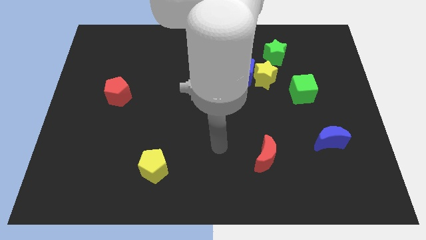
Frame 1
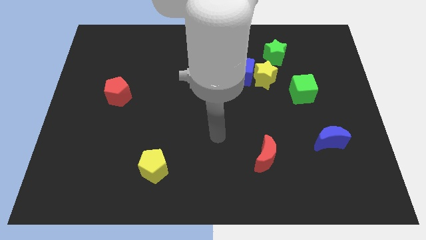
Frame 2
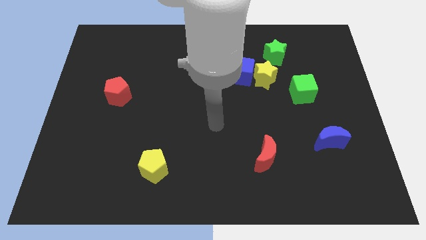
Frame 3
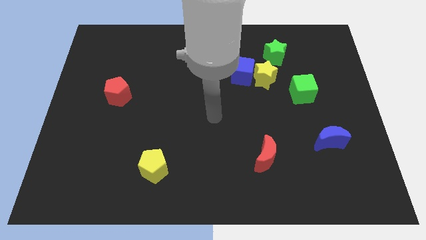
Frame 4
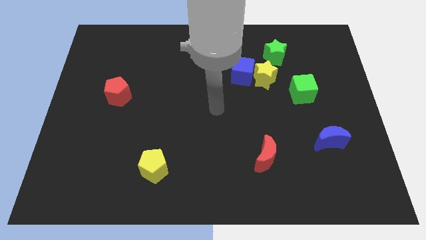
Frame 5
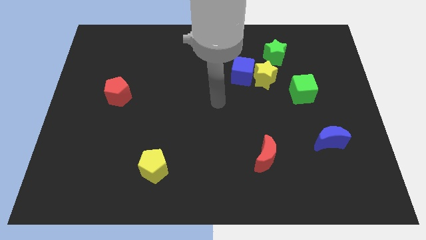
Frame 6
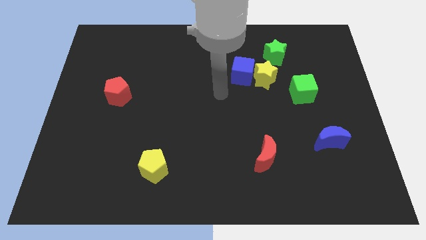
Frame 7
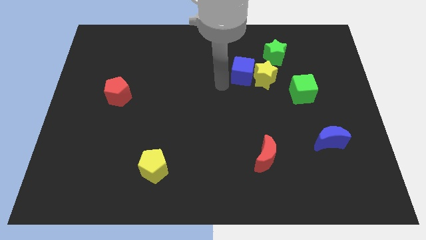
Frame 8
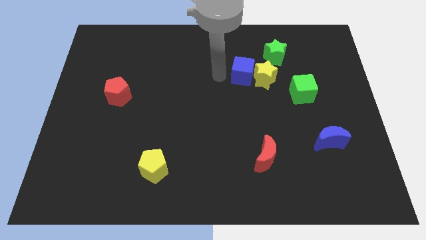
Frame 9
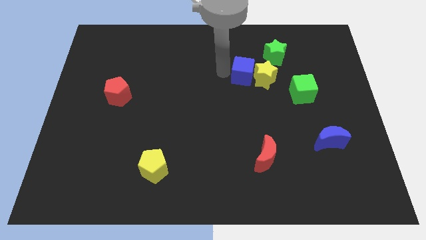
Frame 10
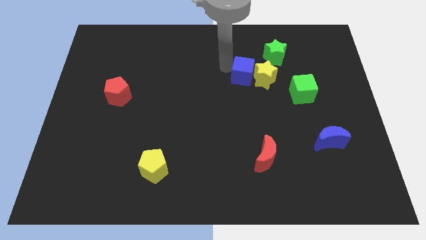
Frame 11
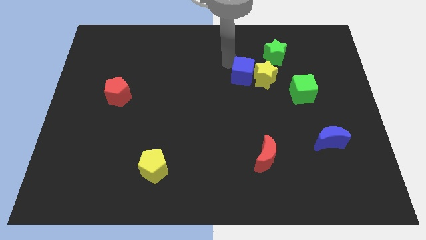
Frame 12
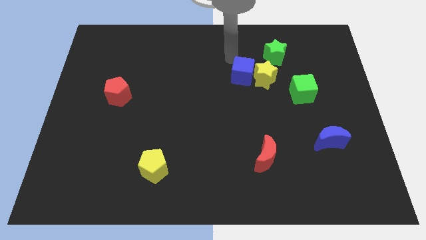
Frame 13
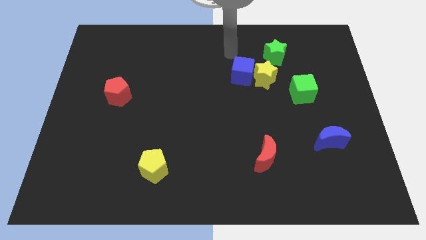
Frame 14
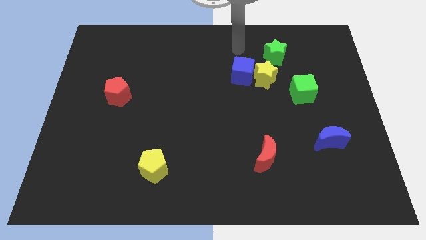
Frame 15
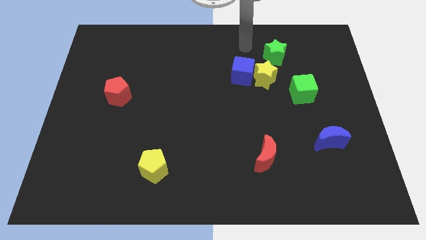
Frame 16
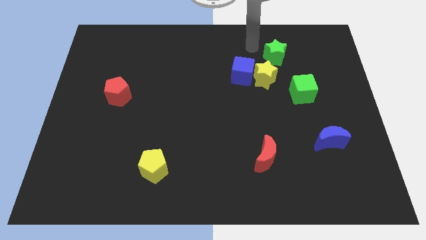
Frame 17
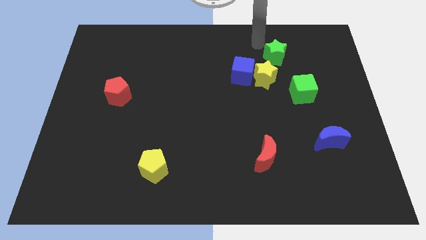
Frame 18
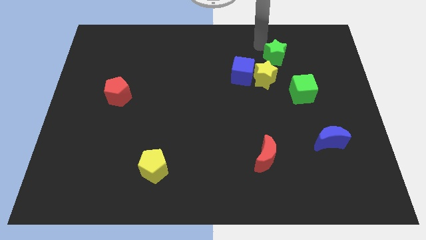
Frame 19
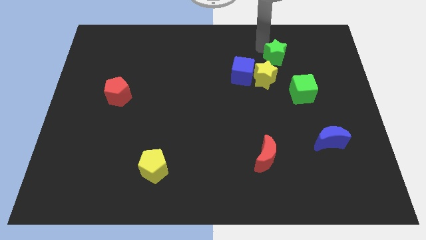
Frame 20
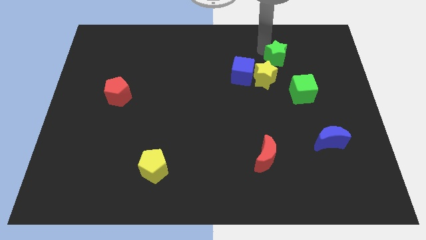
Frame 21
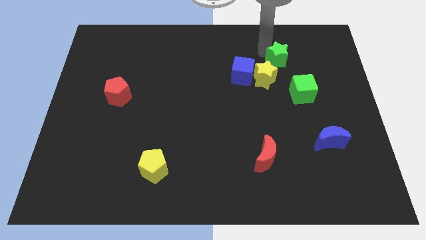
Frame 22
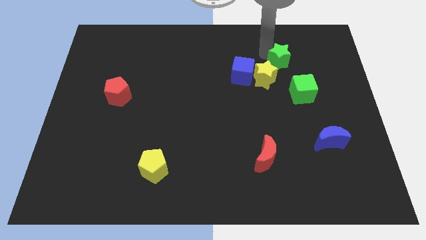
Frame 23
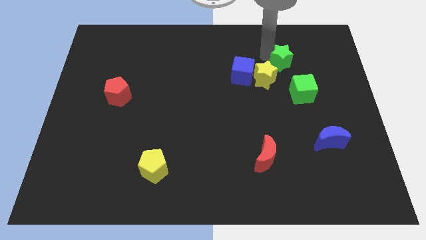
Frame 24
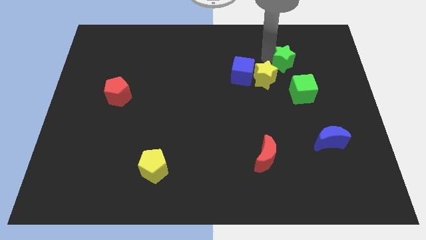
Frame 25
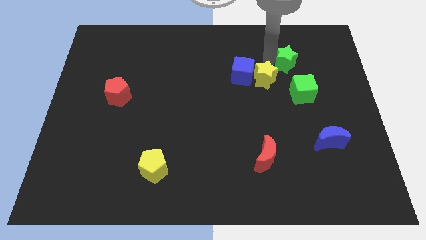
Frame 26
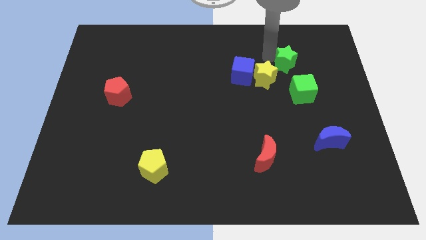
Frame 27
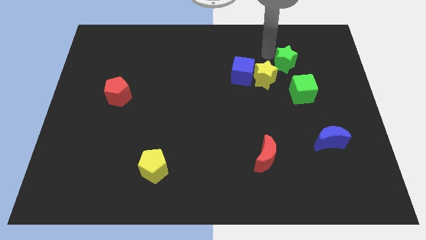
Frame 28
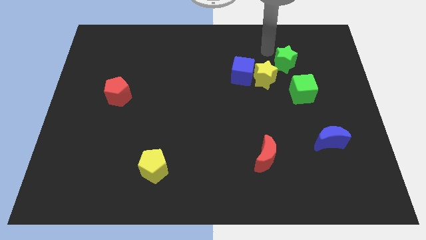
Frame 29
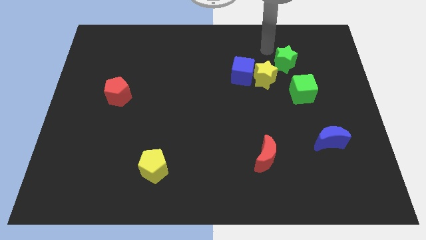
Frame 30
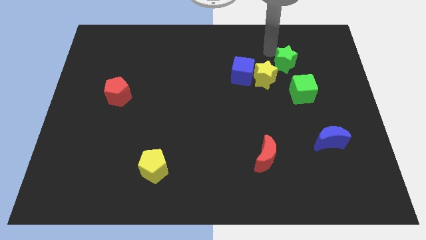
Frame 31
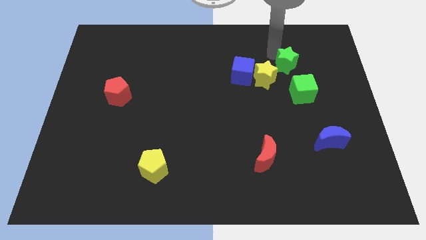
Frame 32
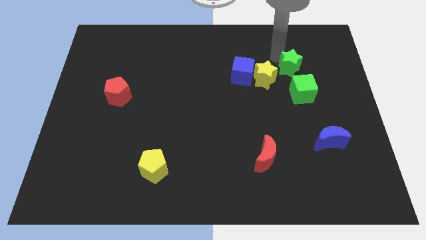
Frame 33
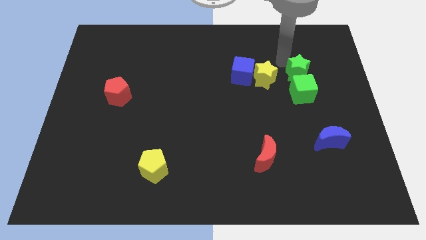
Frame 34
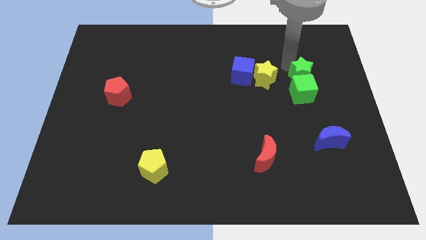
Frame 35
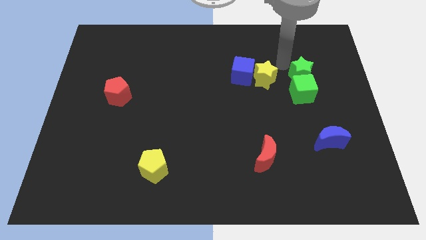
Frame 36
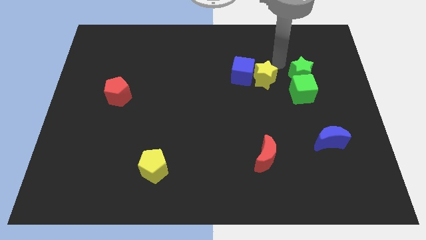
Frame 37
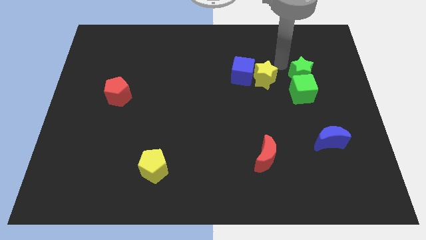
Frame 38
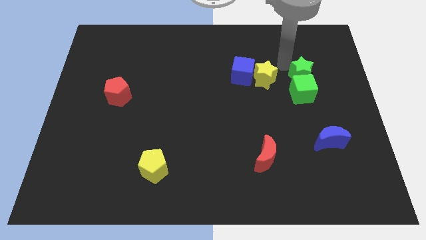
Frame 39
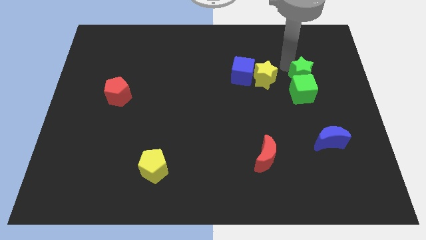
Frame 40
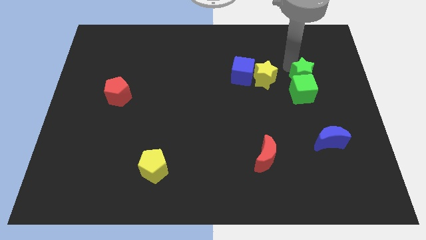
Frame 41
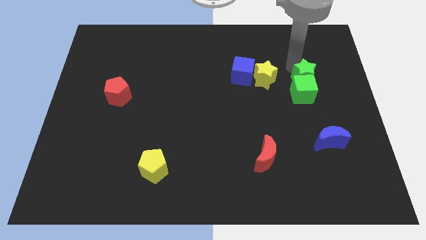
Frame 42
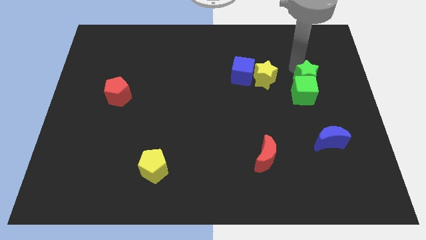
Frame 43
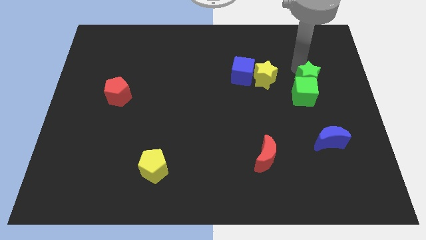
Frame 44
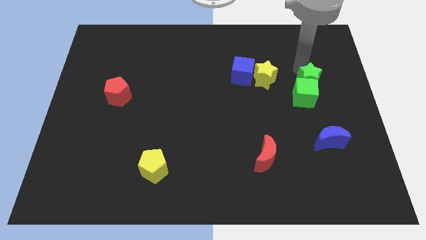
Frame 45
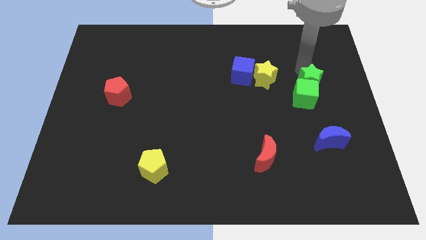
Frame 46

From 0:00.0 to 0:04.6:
push the green star slightly down

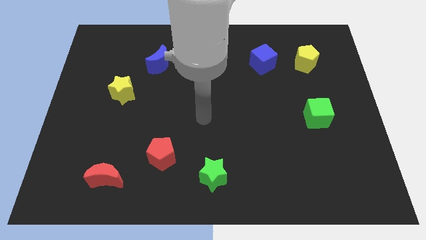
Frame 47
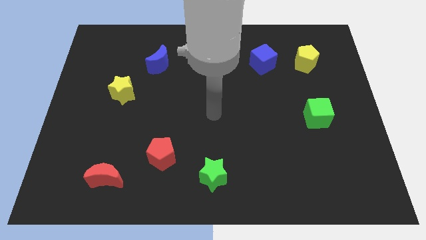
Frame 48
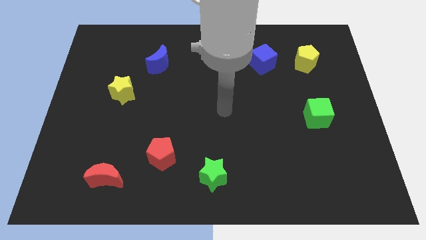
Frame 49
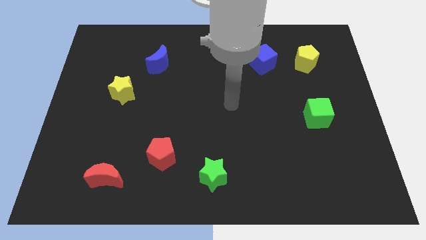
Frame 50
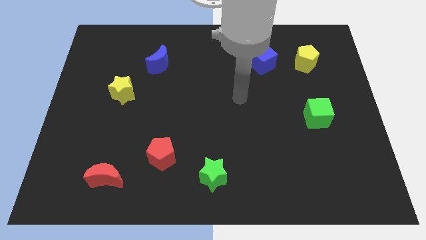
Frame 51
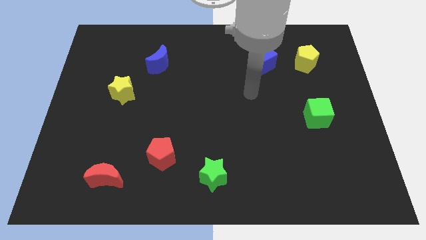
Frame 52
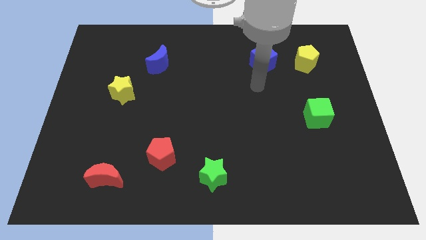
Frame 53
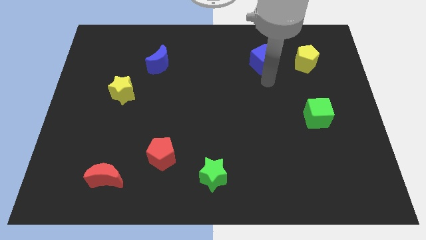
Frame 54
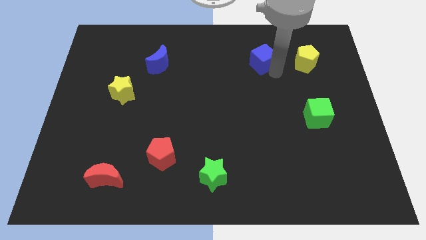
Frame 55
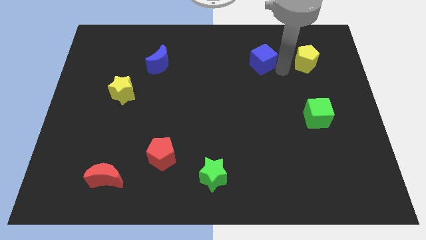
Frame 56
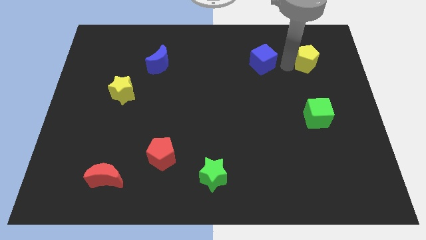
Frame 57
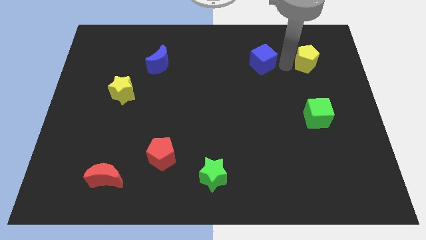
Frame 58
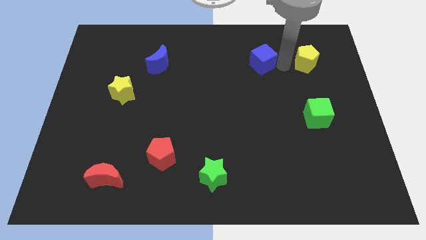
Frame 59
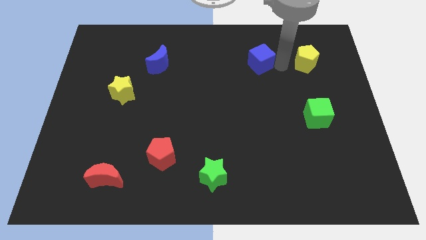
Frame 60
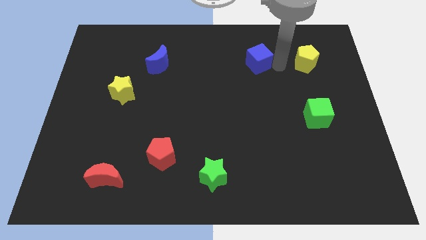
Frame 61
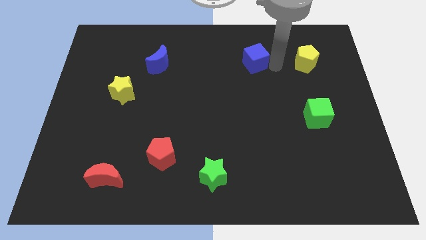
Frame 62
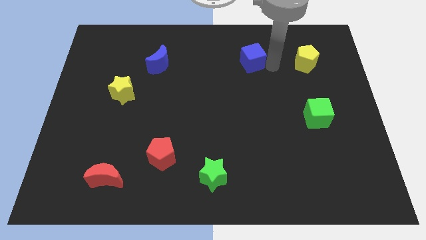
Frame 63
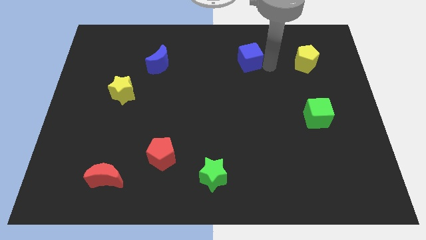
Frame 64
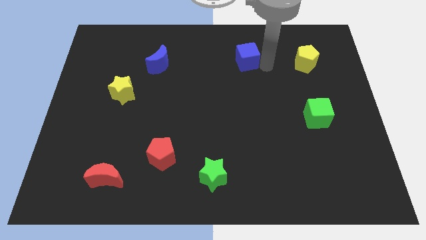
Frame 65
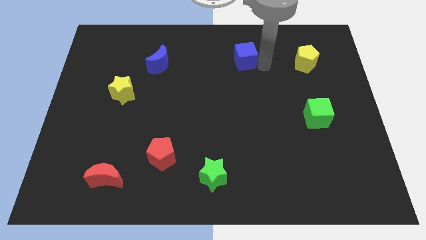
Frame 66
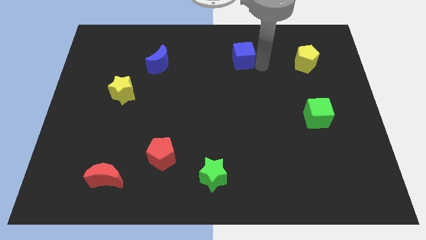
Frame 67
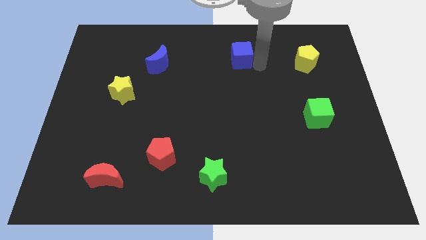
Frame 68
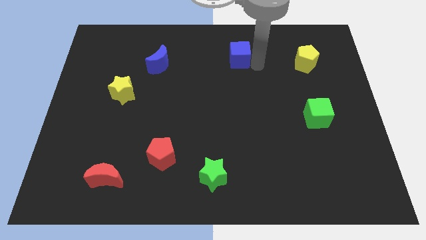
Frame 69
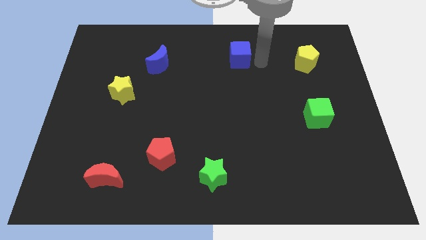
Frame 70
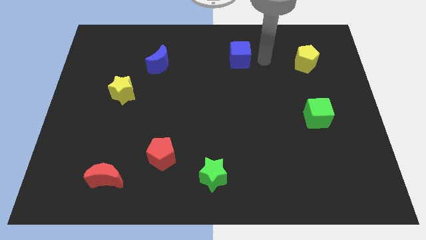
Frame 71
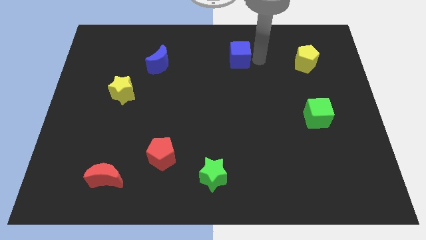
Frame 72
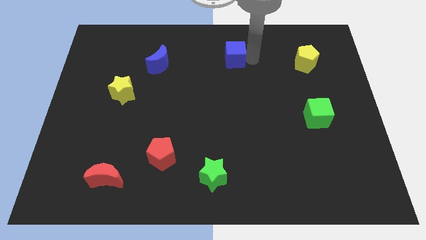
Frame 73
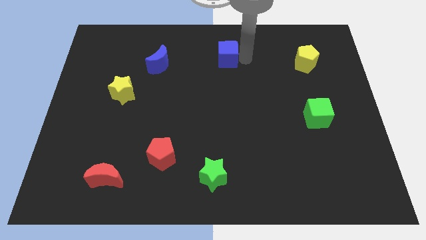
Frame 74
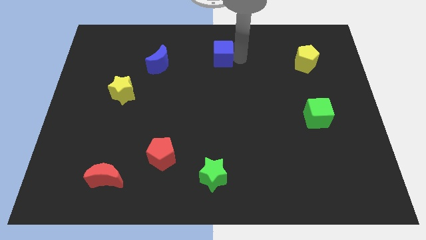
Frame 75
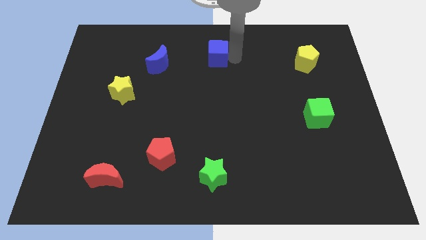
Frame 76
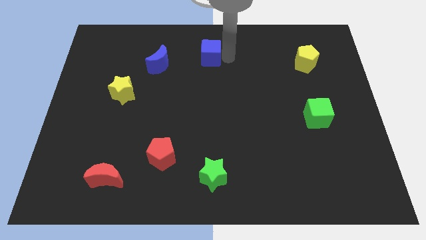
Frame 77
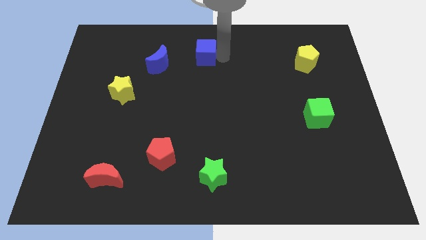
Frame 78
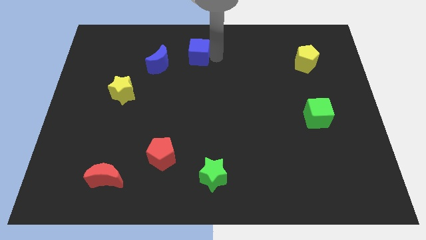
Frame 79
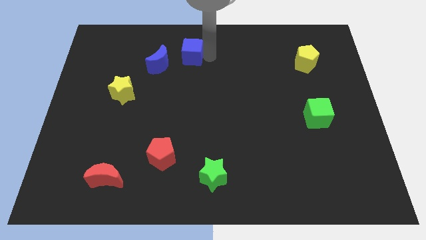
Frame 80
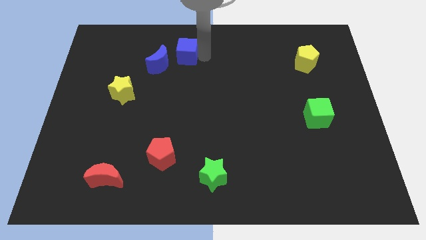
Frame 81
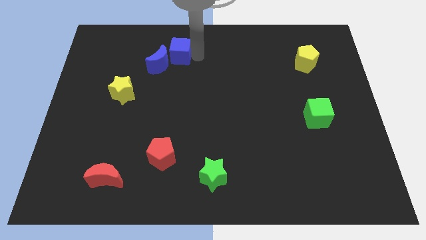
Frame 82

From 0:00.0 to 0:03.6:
push the blue cube to the left
